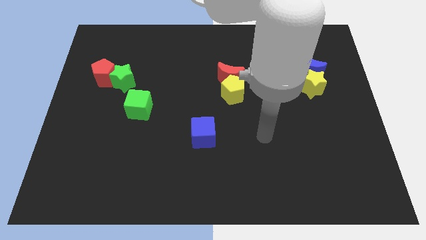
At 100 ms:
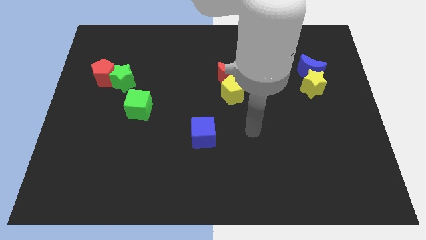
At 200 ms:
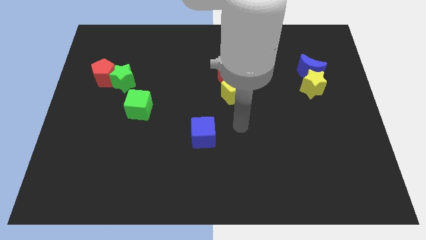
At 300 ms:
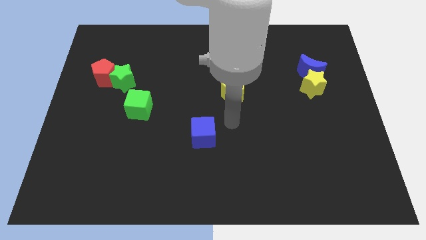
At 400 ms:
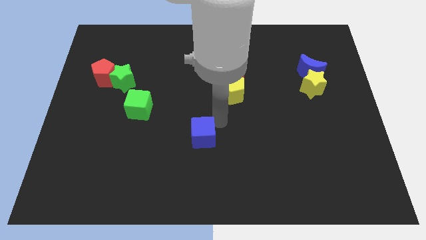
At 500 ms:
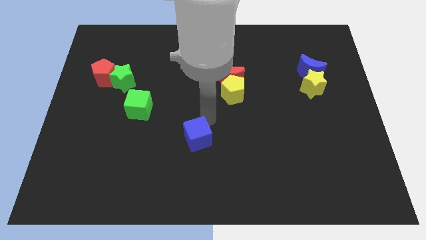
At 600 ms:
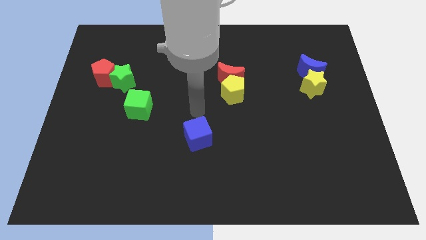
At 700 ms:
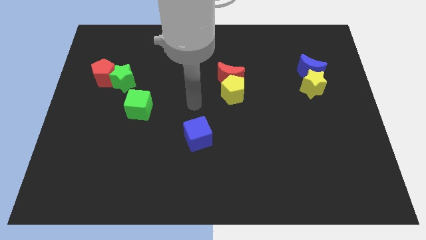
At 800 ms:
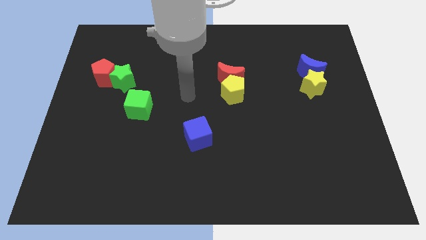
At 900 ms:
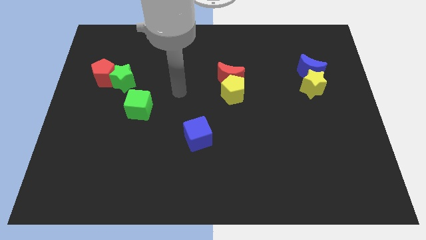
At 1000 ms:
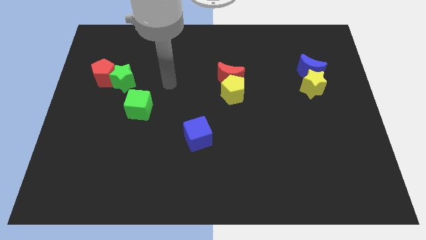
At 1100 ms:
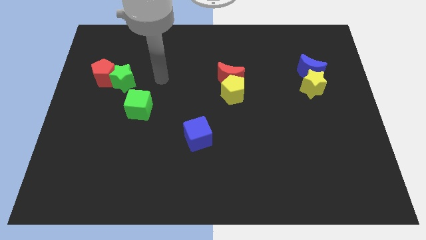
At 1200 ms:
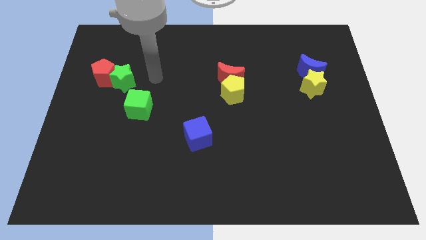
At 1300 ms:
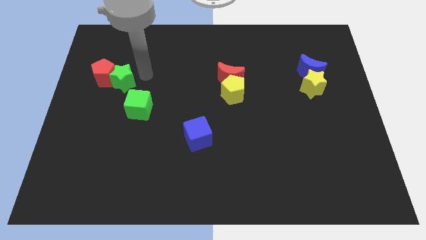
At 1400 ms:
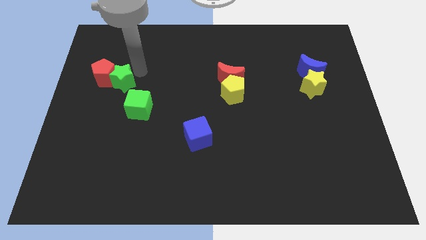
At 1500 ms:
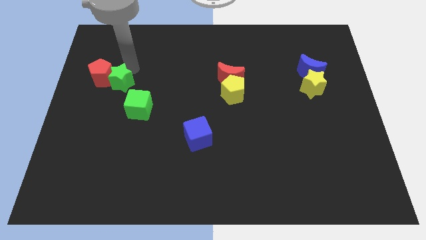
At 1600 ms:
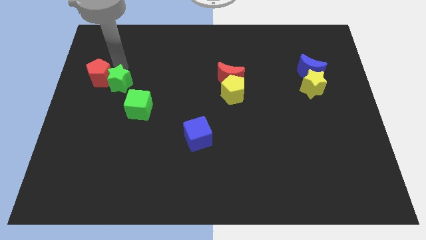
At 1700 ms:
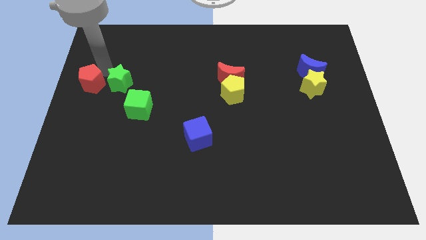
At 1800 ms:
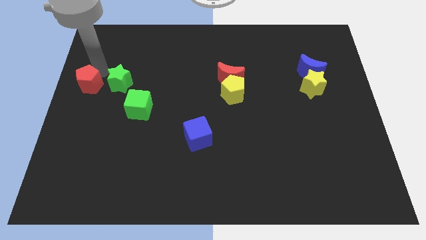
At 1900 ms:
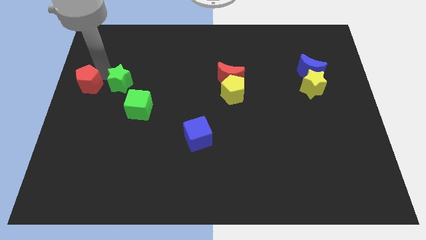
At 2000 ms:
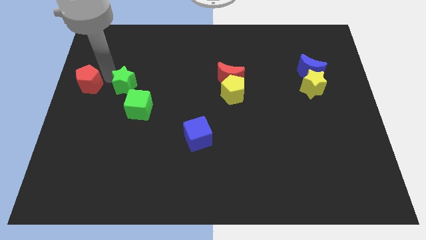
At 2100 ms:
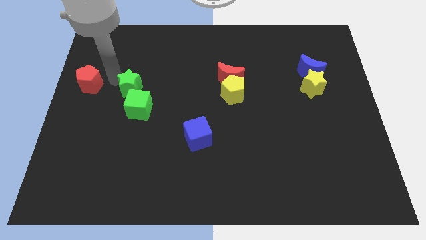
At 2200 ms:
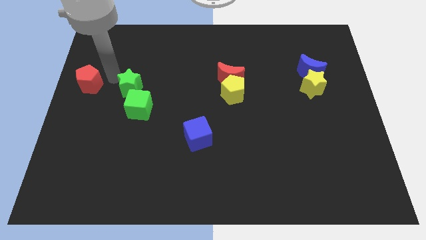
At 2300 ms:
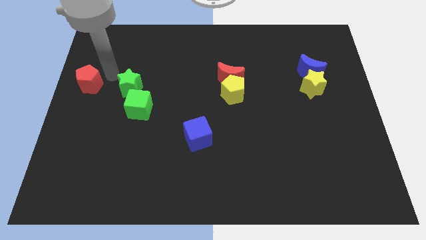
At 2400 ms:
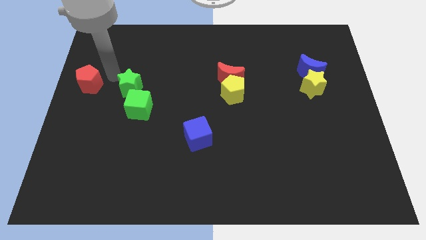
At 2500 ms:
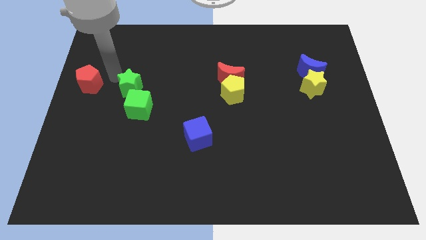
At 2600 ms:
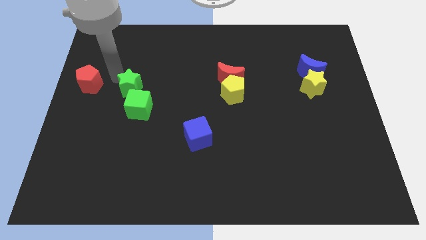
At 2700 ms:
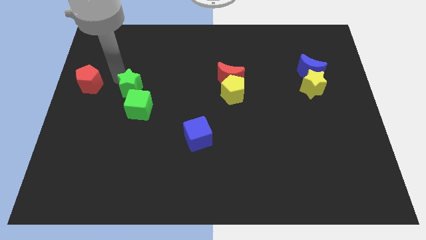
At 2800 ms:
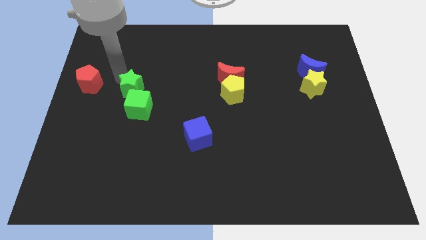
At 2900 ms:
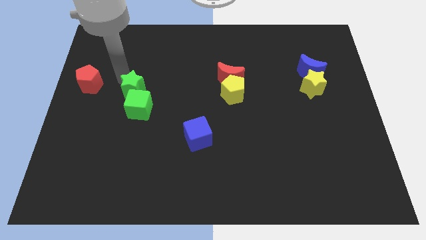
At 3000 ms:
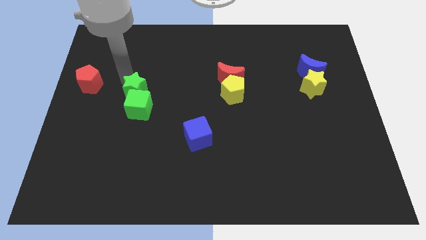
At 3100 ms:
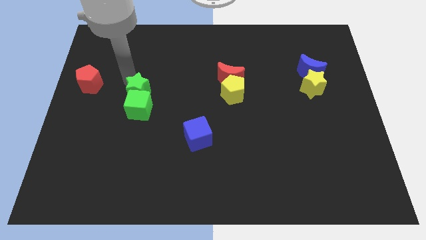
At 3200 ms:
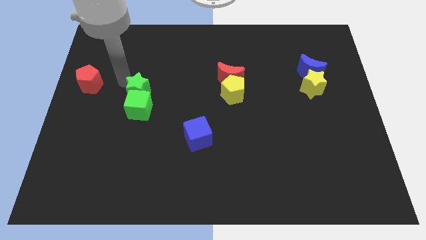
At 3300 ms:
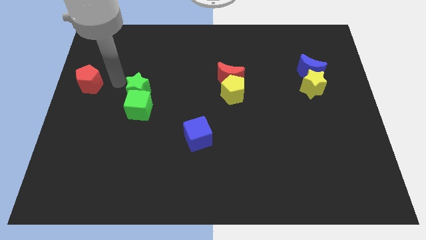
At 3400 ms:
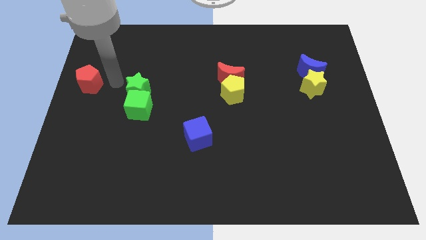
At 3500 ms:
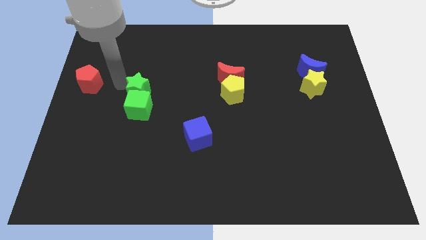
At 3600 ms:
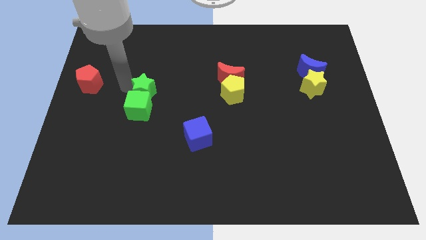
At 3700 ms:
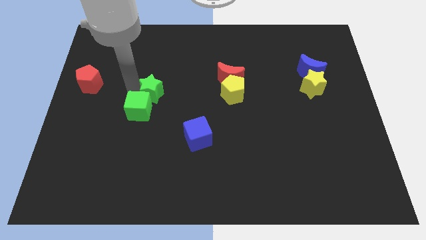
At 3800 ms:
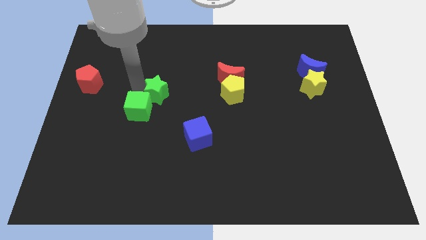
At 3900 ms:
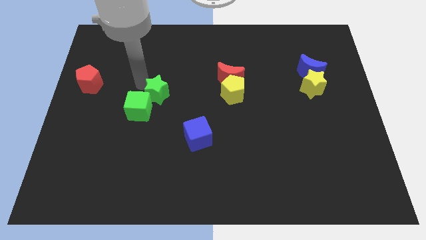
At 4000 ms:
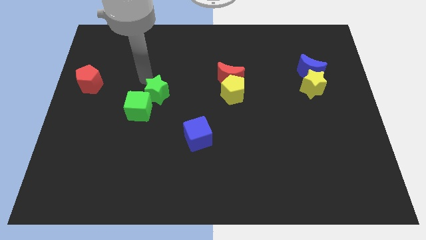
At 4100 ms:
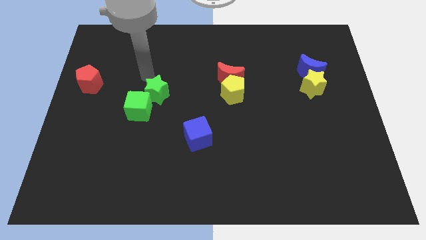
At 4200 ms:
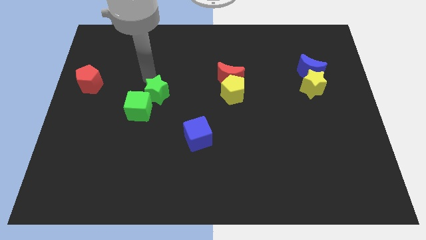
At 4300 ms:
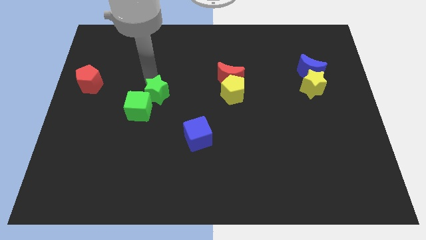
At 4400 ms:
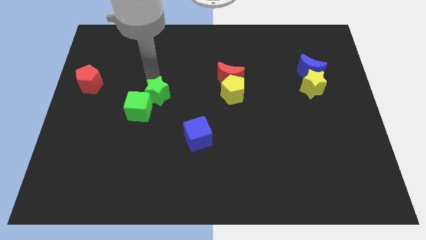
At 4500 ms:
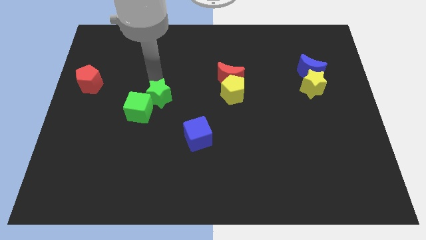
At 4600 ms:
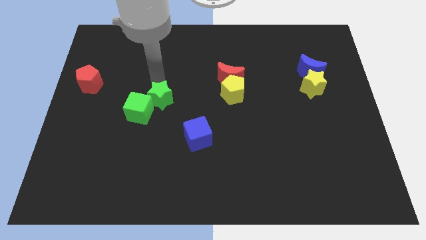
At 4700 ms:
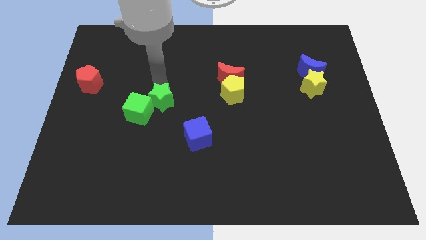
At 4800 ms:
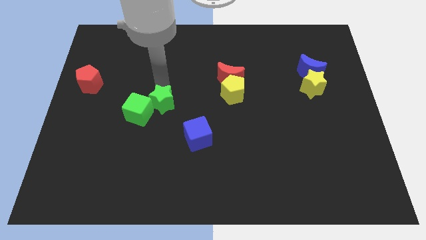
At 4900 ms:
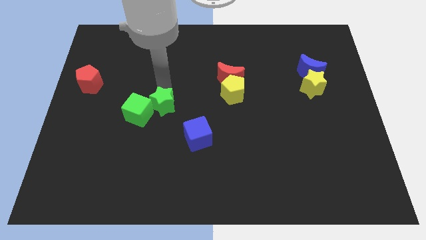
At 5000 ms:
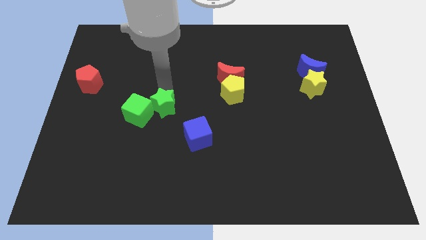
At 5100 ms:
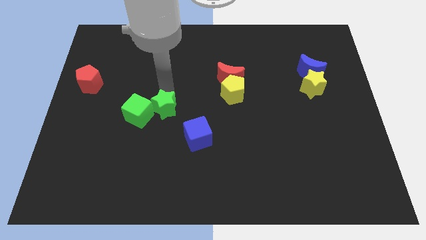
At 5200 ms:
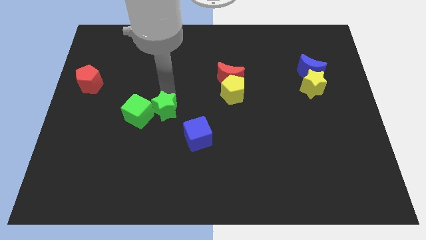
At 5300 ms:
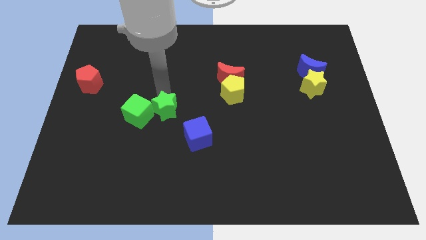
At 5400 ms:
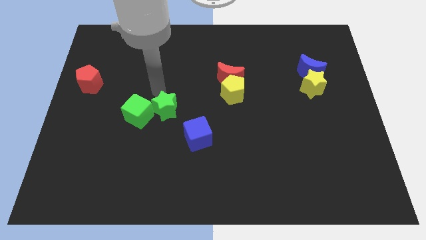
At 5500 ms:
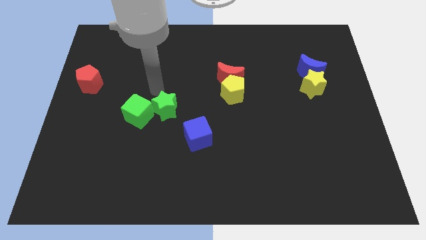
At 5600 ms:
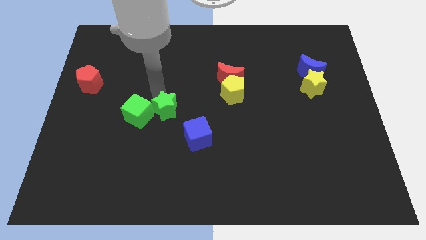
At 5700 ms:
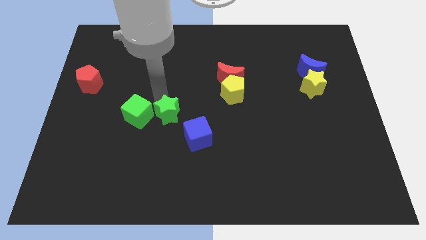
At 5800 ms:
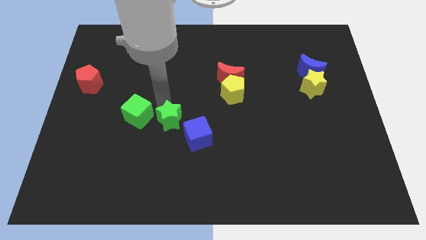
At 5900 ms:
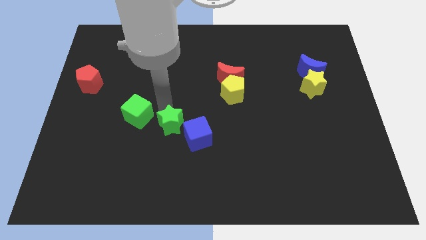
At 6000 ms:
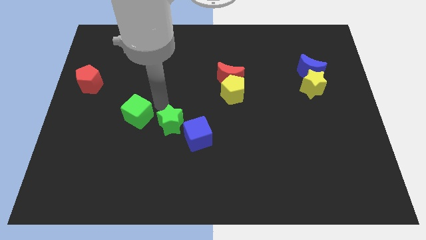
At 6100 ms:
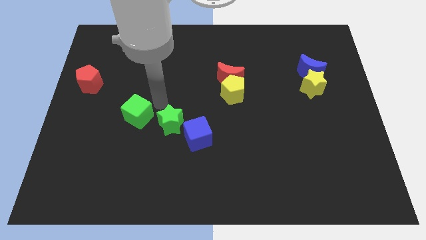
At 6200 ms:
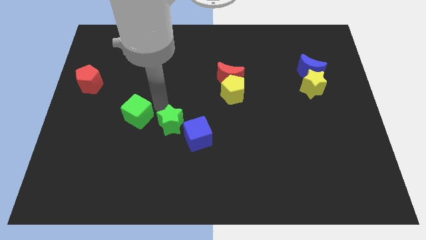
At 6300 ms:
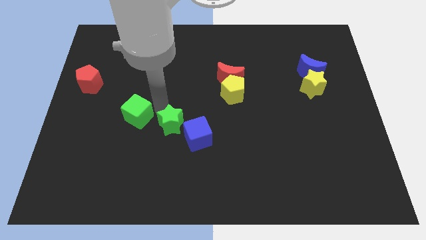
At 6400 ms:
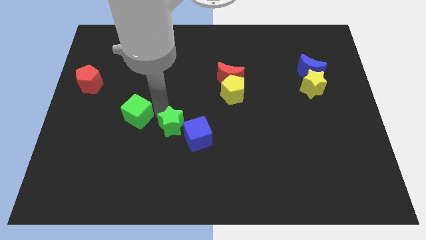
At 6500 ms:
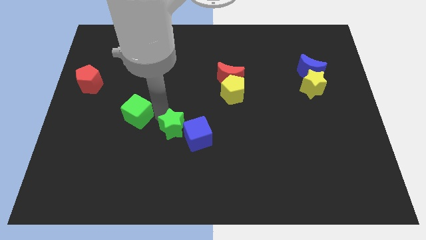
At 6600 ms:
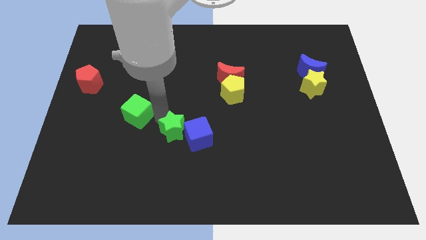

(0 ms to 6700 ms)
move the green star down and to the right

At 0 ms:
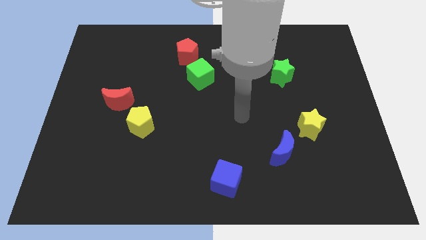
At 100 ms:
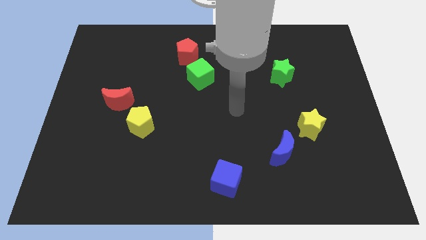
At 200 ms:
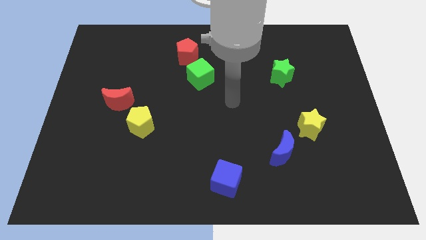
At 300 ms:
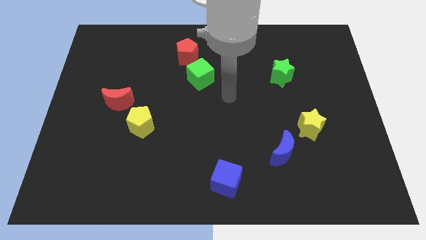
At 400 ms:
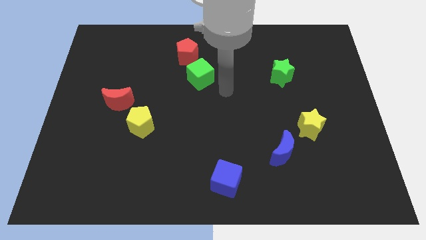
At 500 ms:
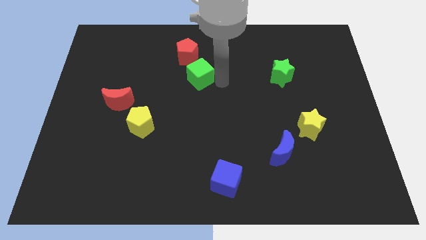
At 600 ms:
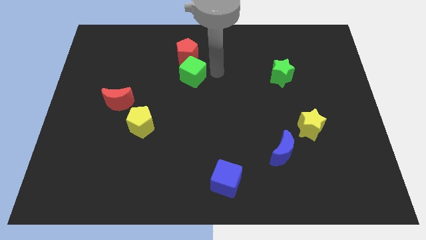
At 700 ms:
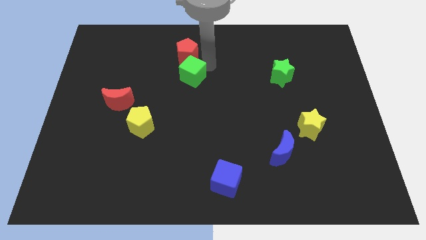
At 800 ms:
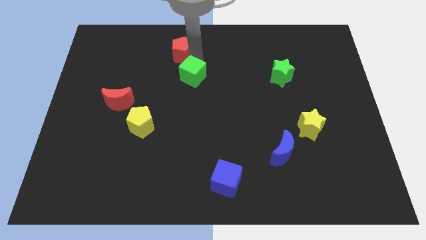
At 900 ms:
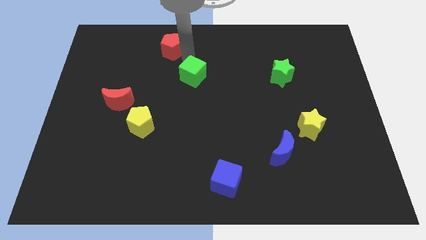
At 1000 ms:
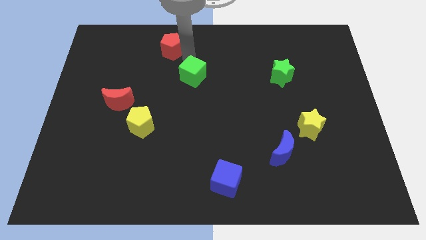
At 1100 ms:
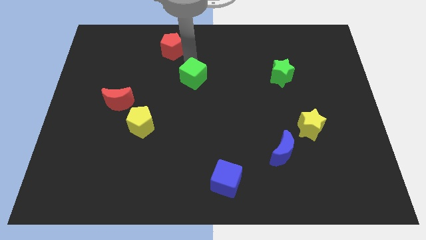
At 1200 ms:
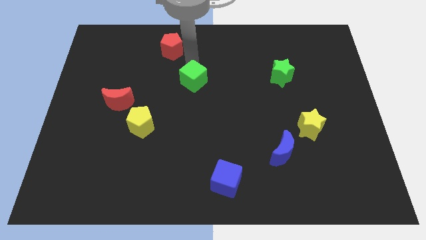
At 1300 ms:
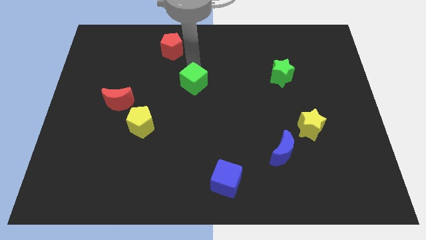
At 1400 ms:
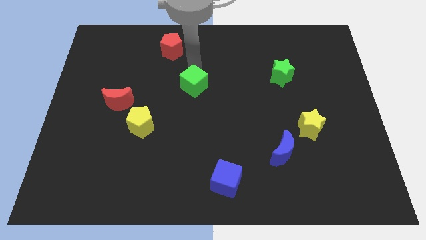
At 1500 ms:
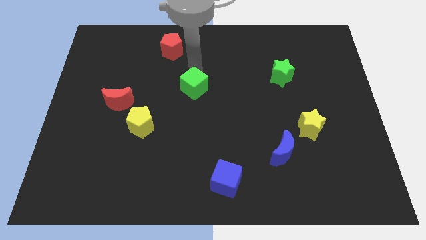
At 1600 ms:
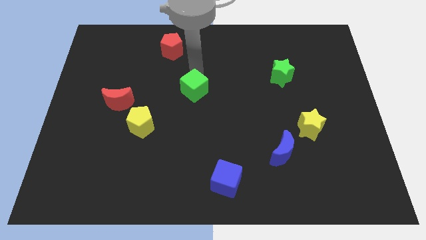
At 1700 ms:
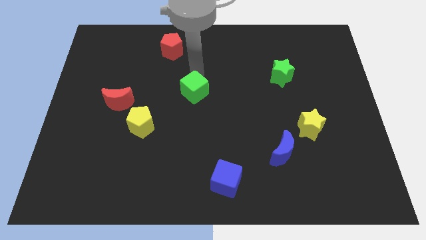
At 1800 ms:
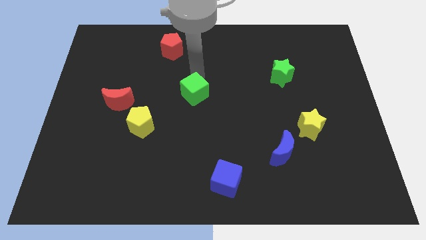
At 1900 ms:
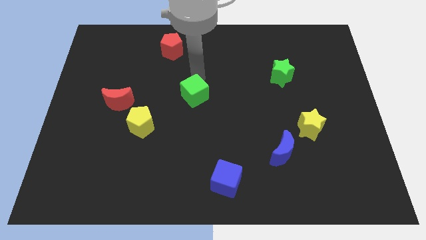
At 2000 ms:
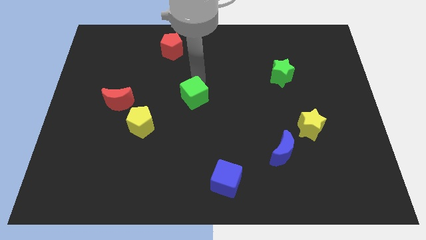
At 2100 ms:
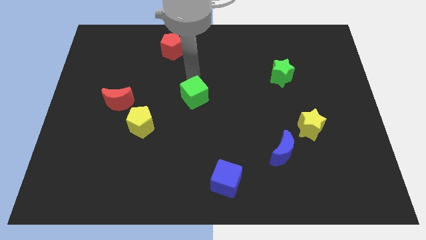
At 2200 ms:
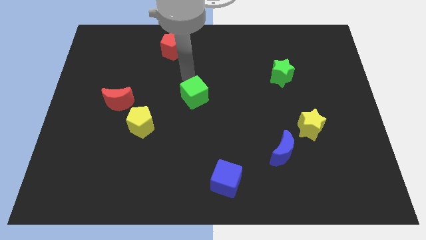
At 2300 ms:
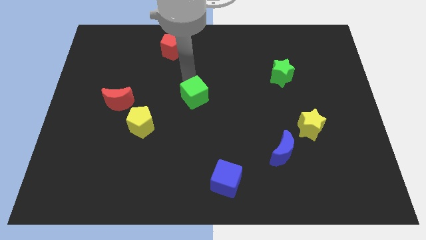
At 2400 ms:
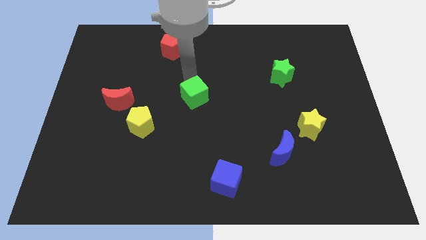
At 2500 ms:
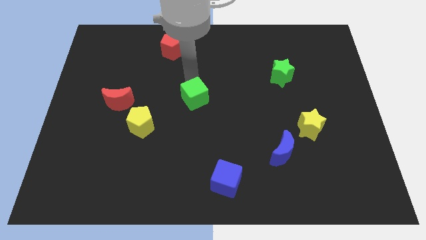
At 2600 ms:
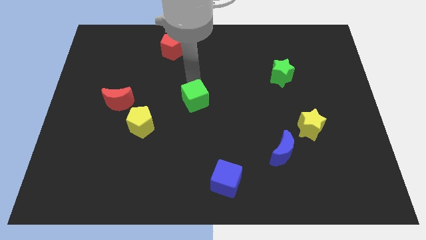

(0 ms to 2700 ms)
move the green cube downwards a little bit
